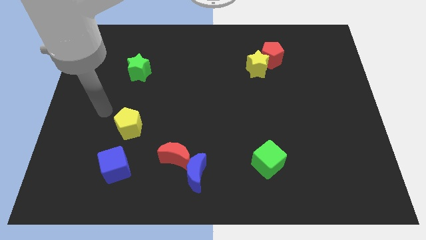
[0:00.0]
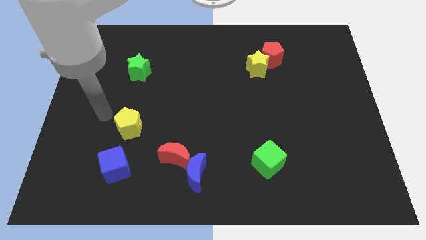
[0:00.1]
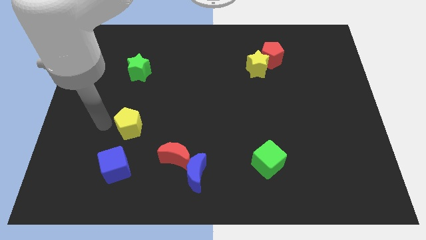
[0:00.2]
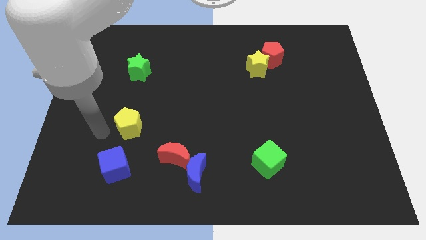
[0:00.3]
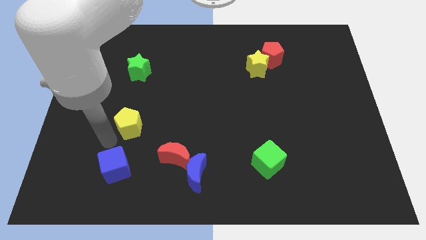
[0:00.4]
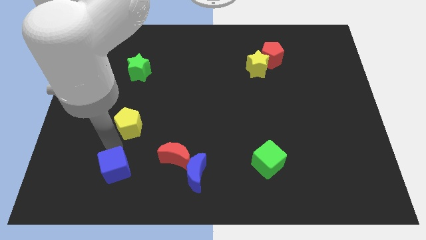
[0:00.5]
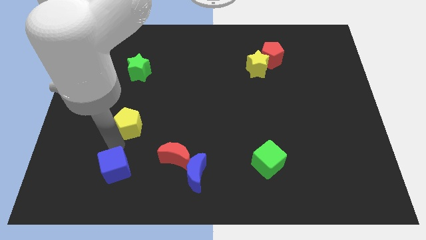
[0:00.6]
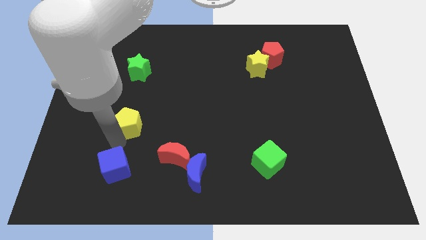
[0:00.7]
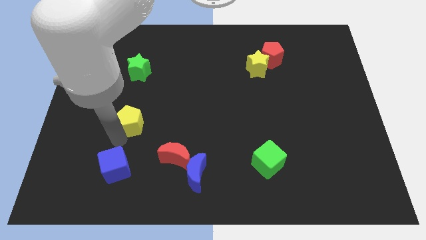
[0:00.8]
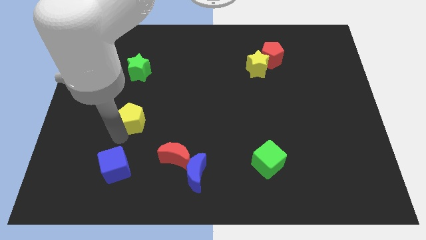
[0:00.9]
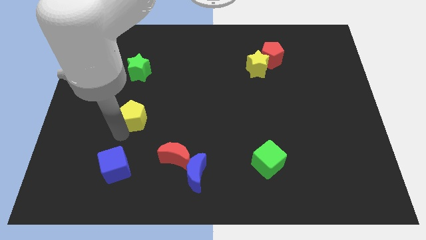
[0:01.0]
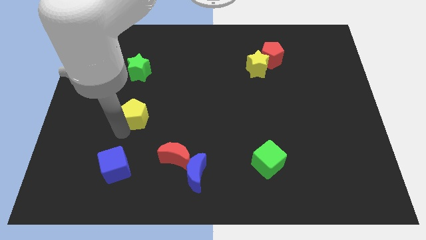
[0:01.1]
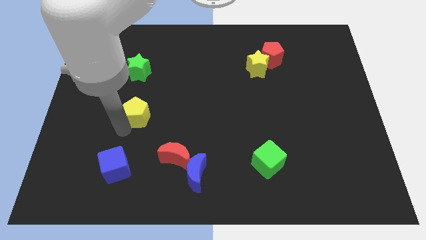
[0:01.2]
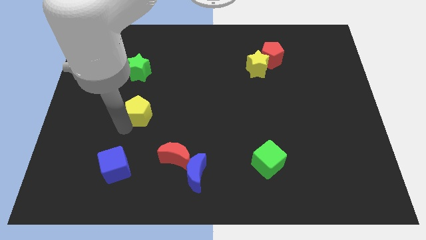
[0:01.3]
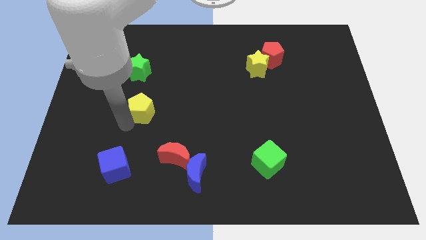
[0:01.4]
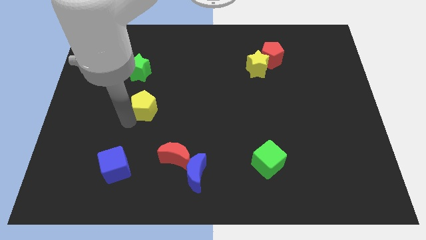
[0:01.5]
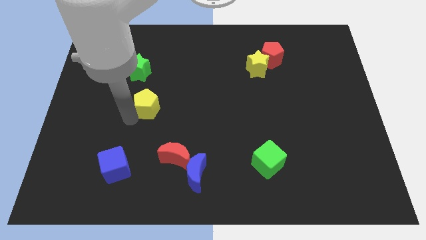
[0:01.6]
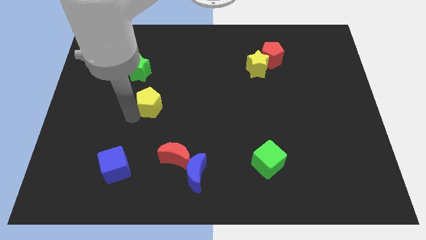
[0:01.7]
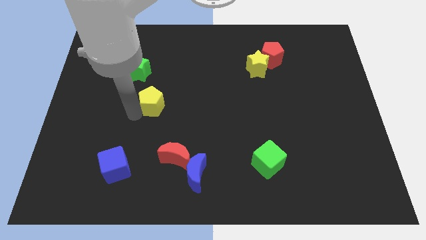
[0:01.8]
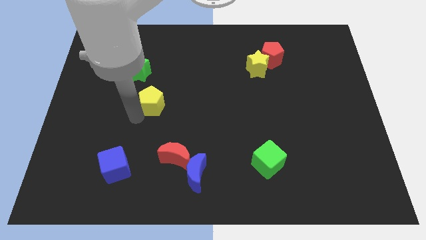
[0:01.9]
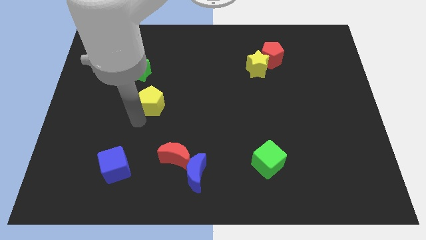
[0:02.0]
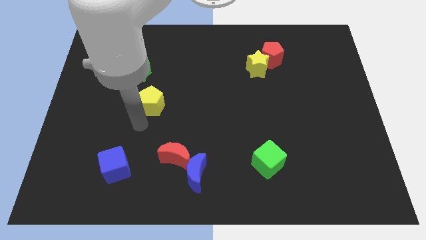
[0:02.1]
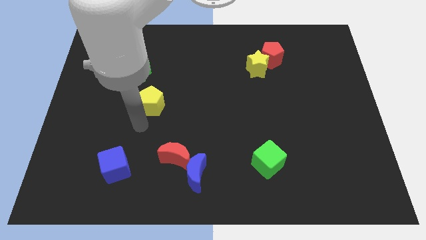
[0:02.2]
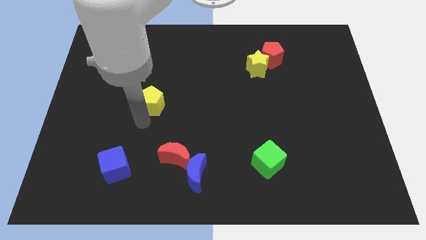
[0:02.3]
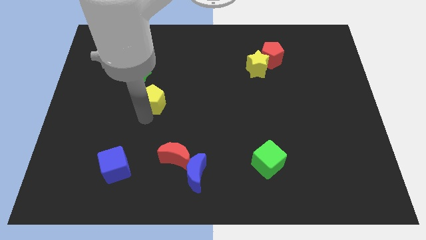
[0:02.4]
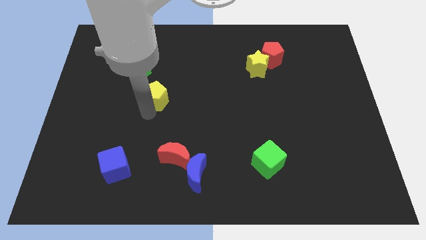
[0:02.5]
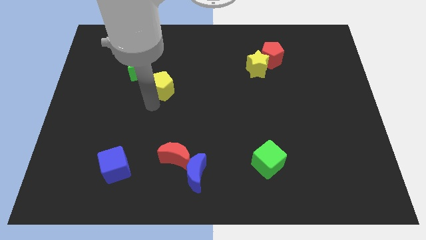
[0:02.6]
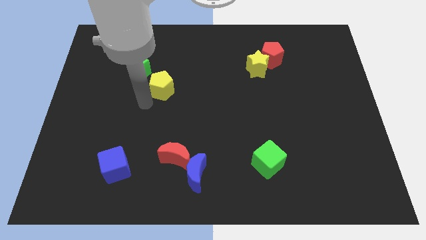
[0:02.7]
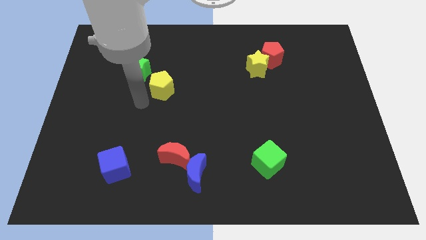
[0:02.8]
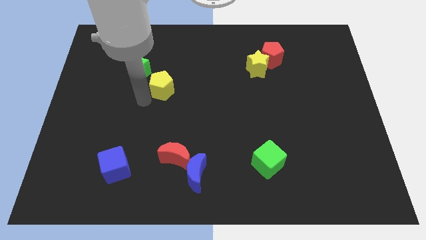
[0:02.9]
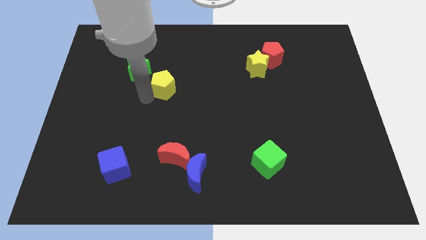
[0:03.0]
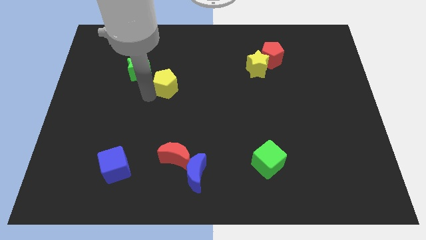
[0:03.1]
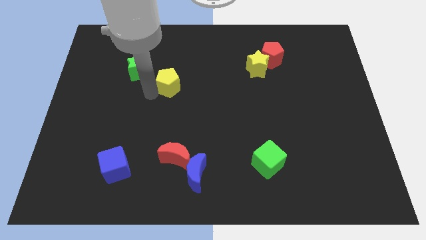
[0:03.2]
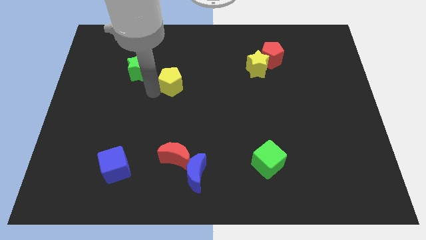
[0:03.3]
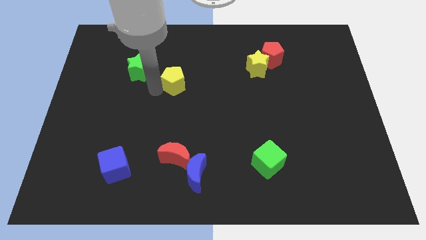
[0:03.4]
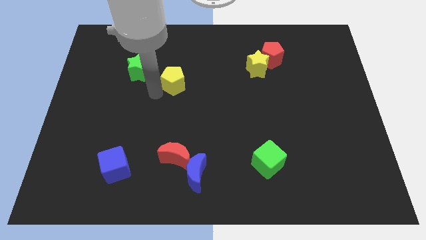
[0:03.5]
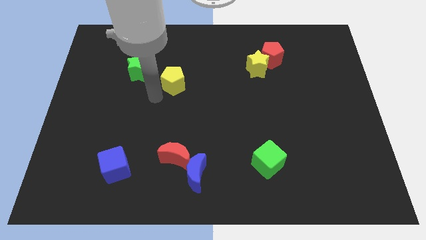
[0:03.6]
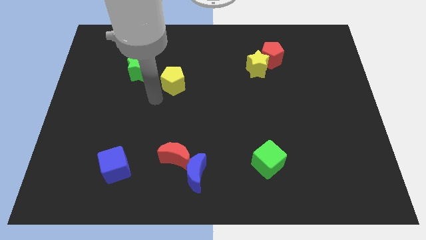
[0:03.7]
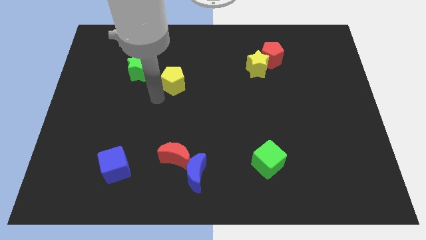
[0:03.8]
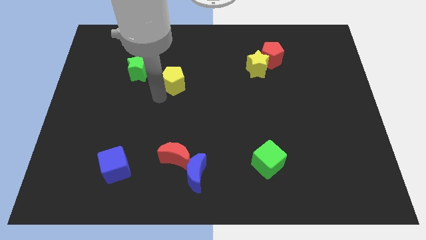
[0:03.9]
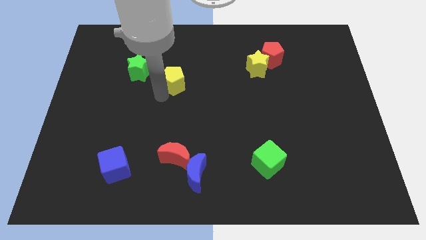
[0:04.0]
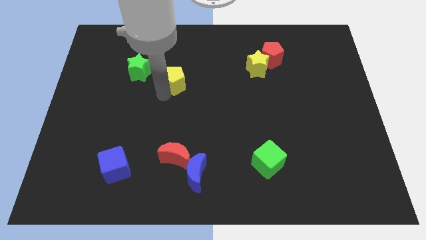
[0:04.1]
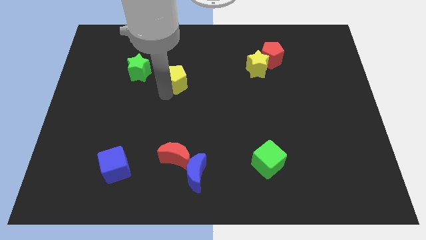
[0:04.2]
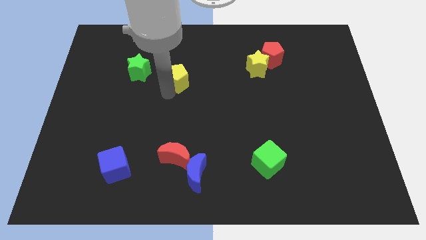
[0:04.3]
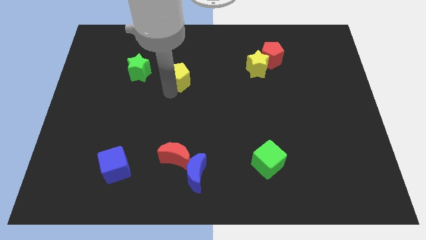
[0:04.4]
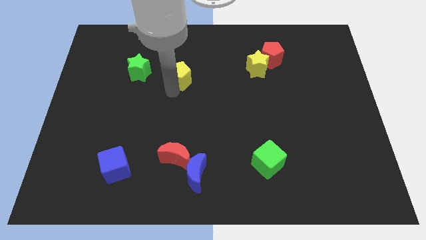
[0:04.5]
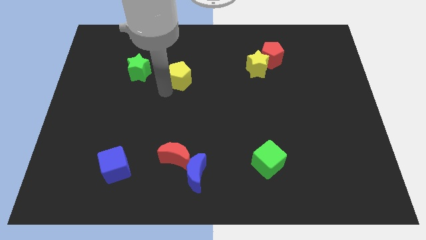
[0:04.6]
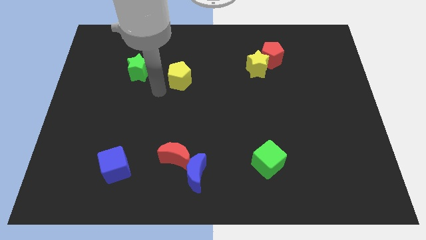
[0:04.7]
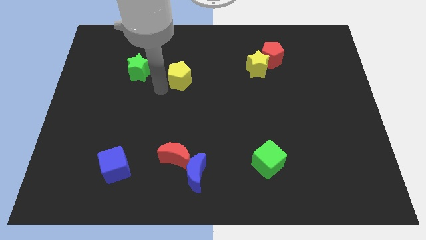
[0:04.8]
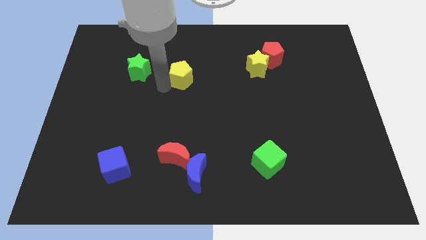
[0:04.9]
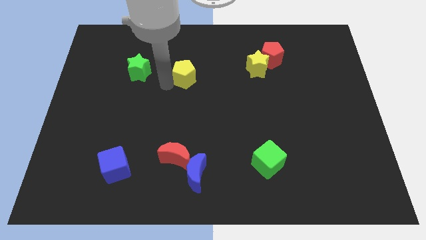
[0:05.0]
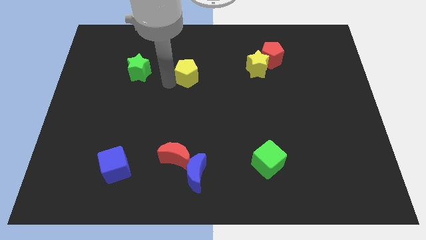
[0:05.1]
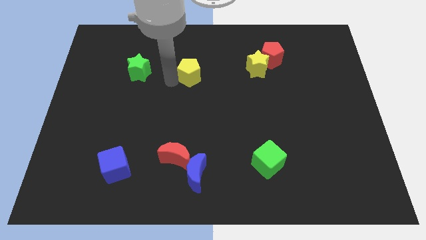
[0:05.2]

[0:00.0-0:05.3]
move the yellow pentagon up and right diagonally

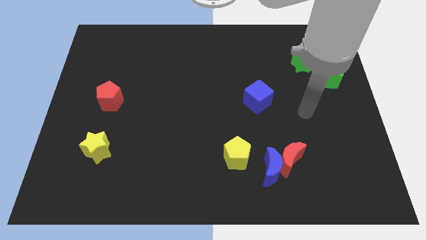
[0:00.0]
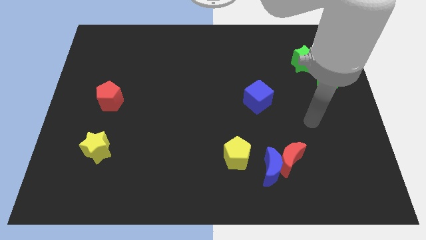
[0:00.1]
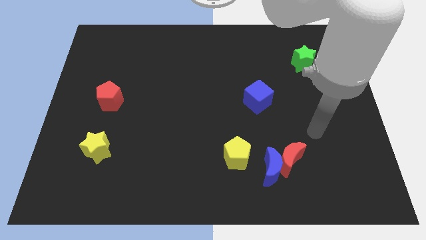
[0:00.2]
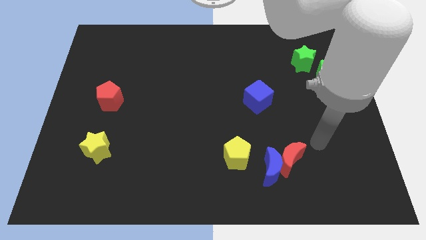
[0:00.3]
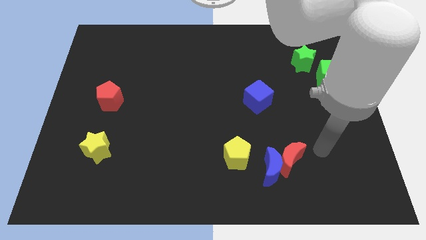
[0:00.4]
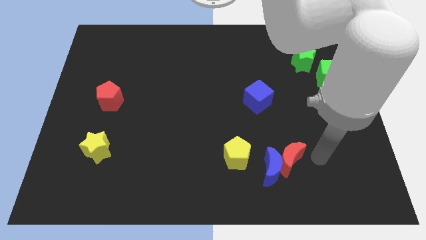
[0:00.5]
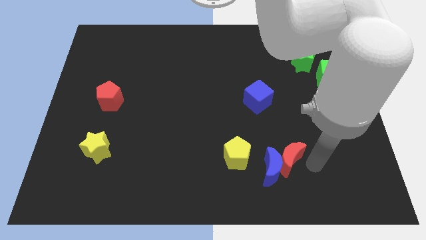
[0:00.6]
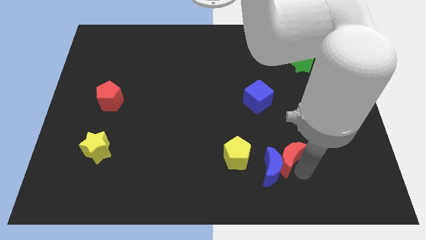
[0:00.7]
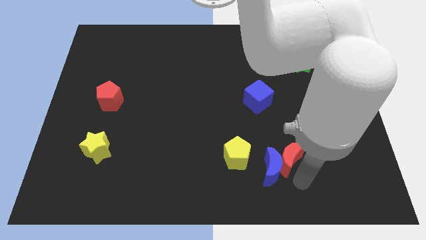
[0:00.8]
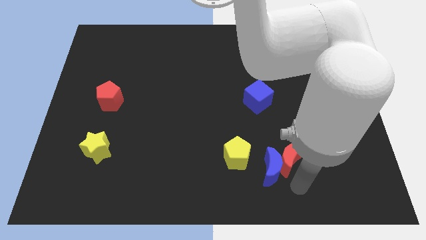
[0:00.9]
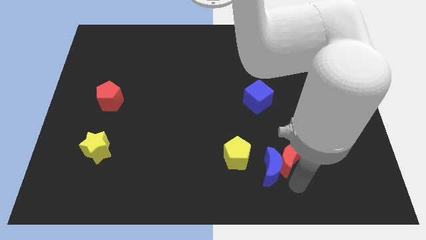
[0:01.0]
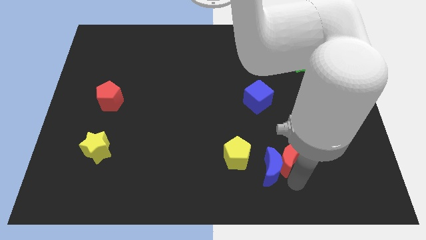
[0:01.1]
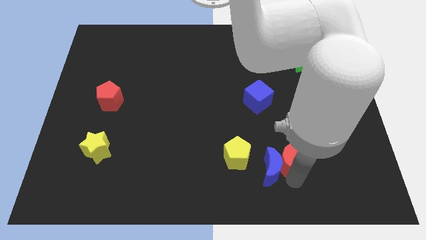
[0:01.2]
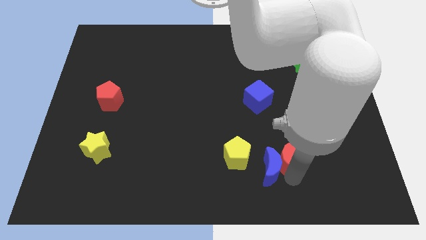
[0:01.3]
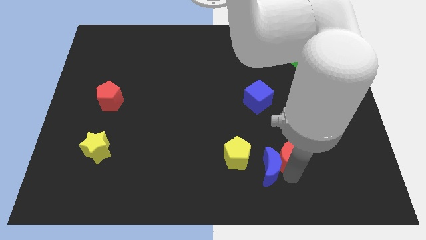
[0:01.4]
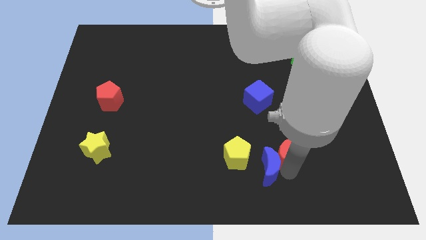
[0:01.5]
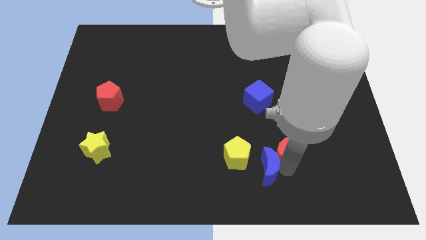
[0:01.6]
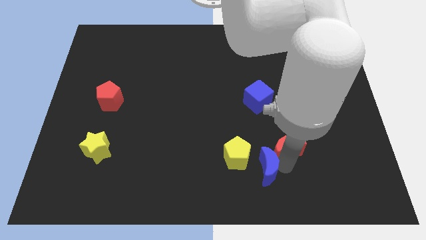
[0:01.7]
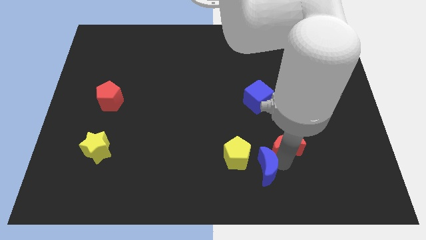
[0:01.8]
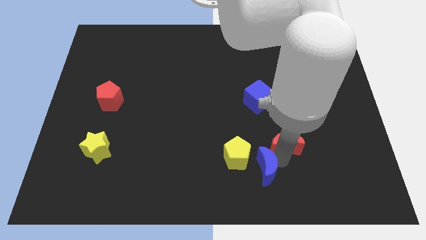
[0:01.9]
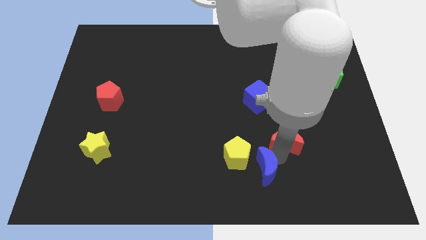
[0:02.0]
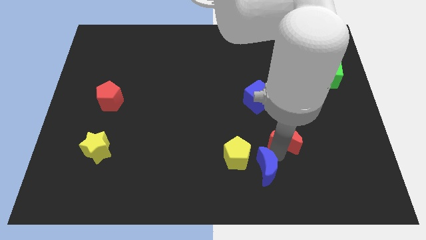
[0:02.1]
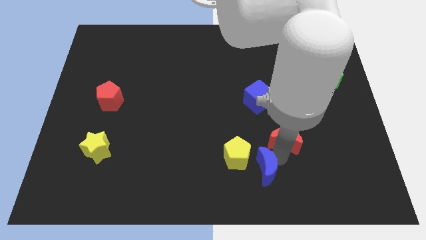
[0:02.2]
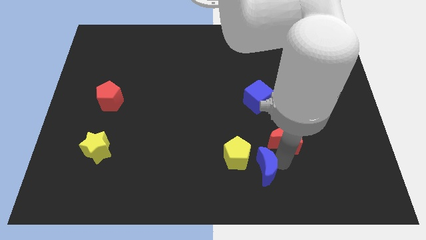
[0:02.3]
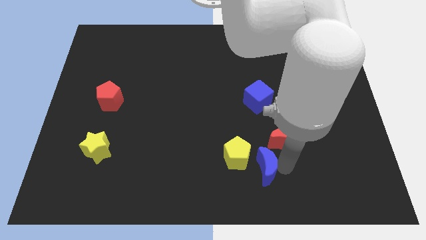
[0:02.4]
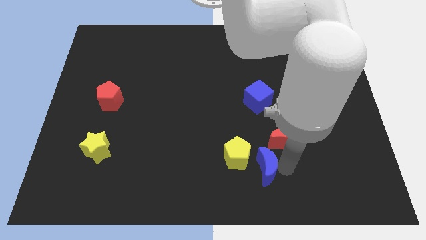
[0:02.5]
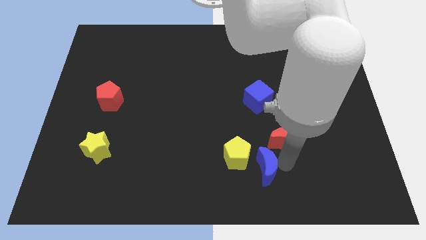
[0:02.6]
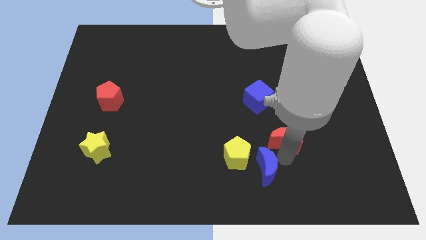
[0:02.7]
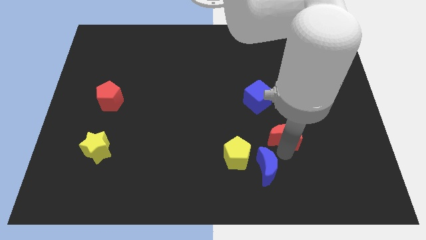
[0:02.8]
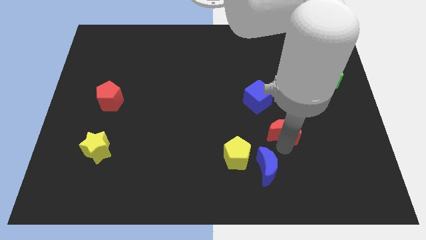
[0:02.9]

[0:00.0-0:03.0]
push the red moon a bit up
